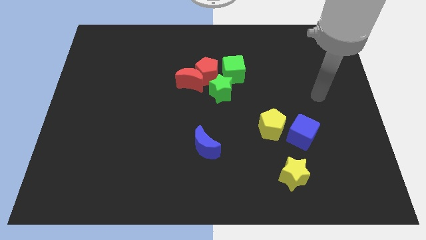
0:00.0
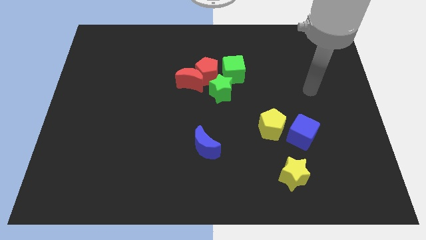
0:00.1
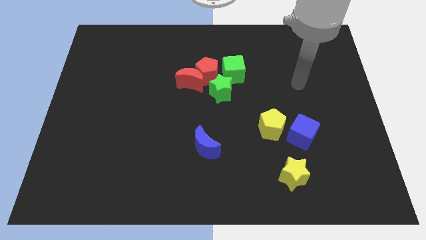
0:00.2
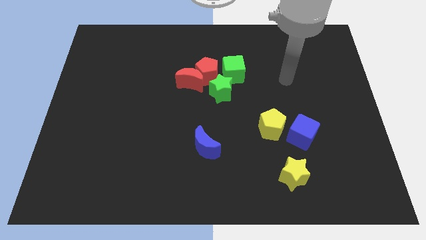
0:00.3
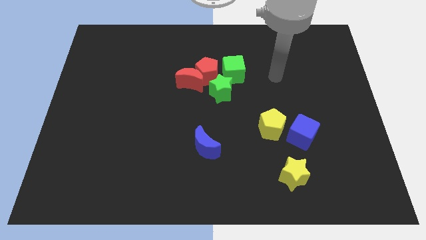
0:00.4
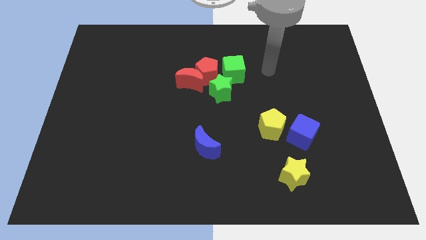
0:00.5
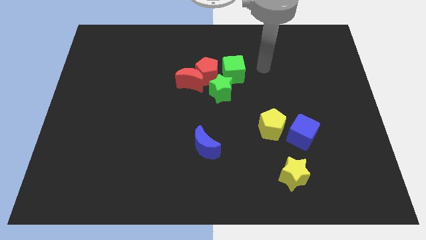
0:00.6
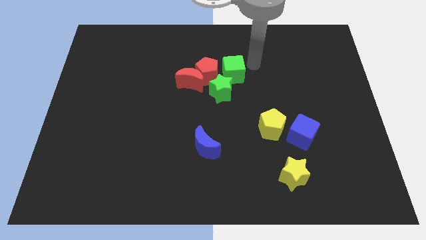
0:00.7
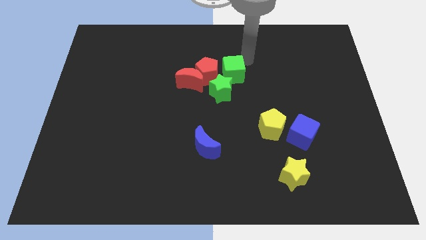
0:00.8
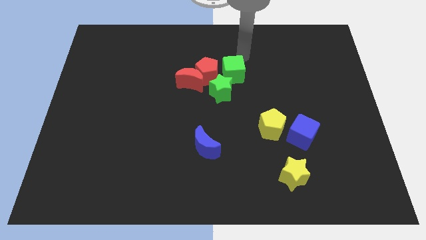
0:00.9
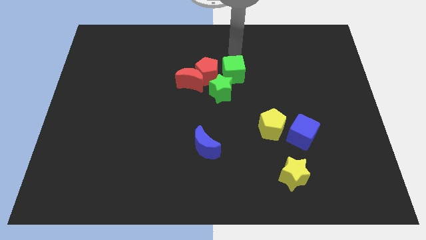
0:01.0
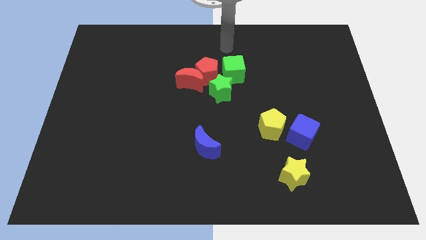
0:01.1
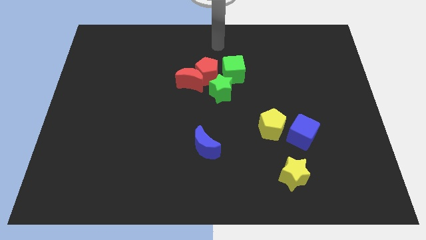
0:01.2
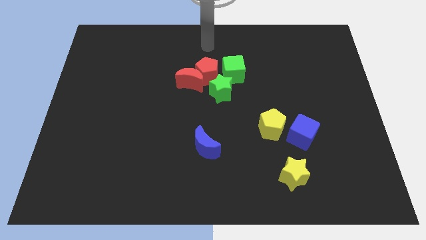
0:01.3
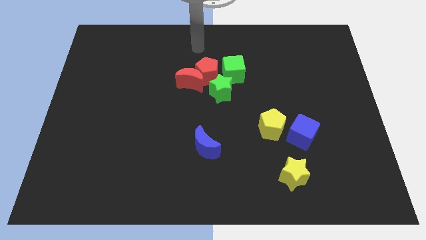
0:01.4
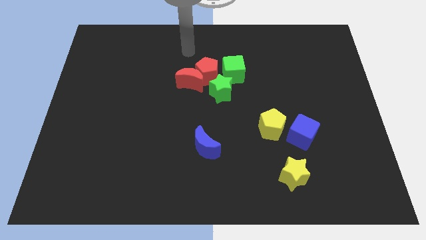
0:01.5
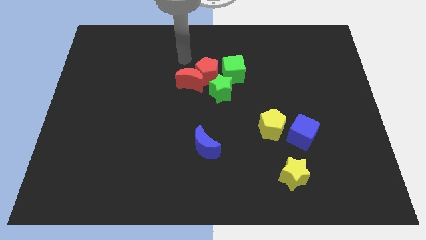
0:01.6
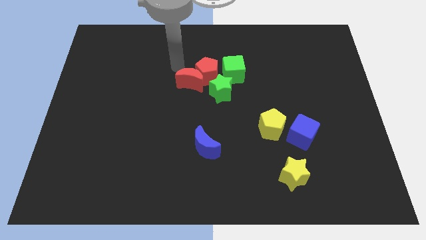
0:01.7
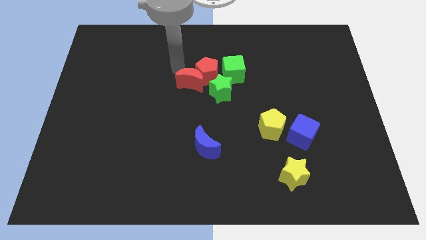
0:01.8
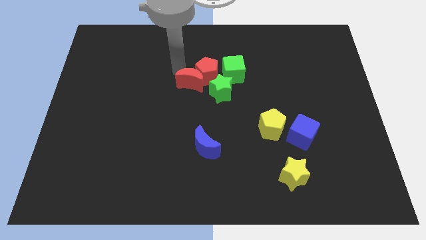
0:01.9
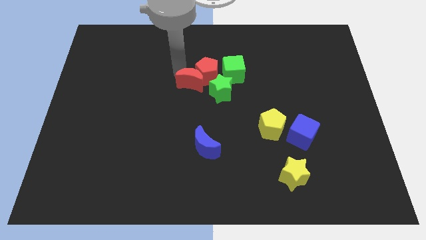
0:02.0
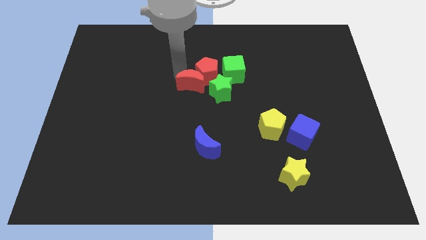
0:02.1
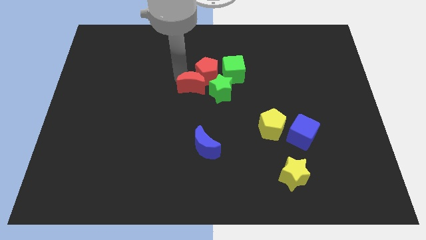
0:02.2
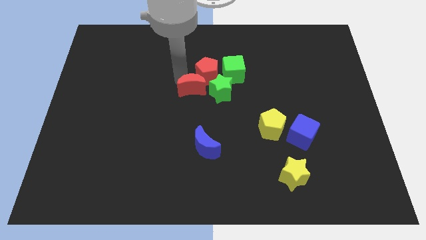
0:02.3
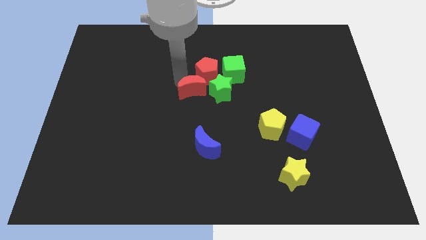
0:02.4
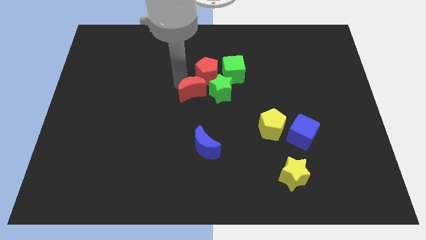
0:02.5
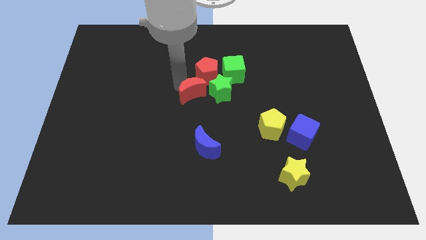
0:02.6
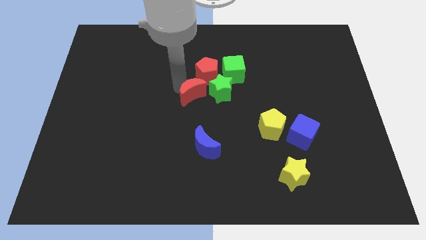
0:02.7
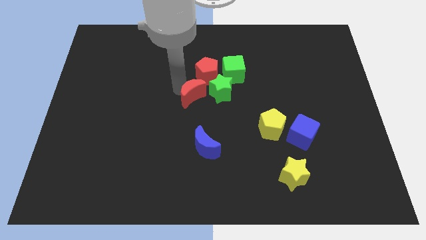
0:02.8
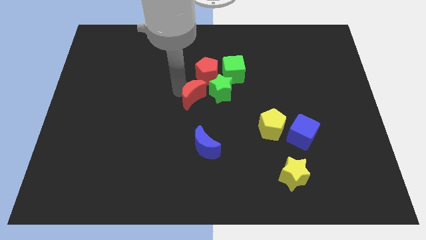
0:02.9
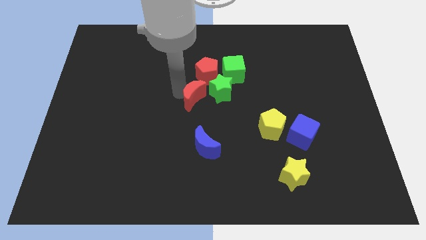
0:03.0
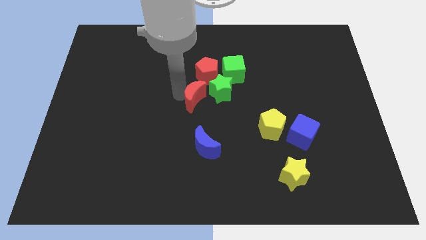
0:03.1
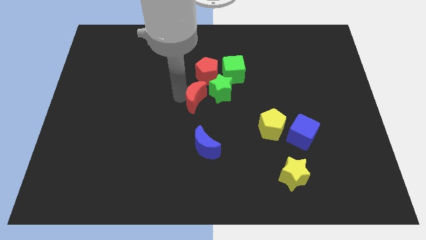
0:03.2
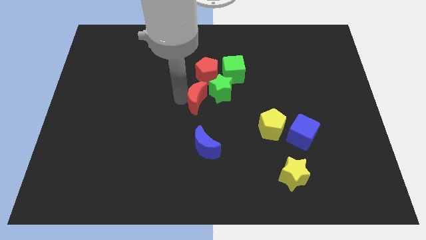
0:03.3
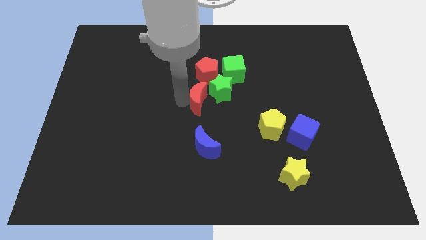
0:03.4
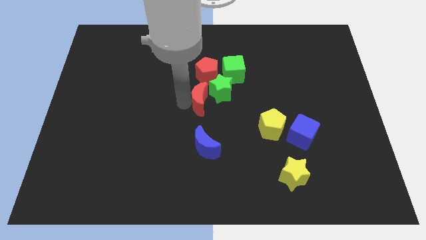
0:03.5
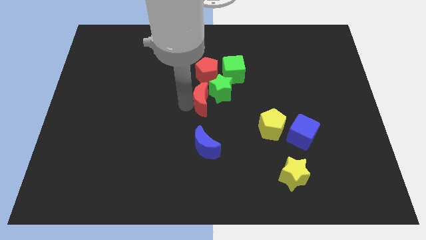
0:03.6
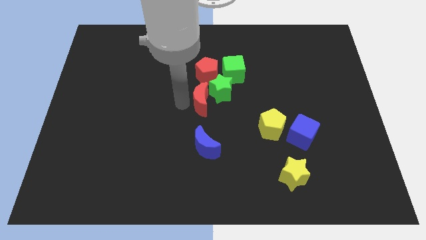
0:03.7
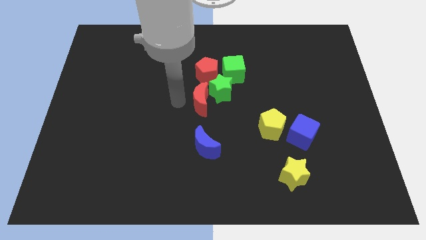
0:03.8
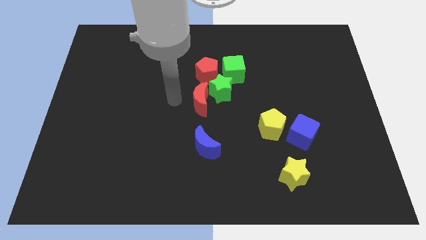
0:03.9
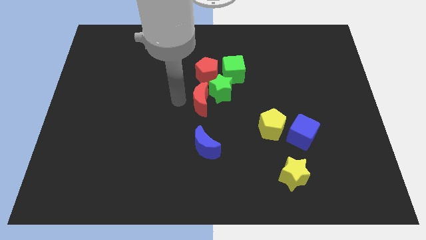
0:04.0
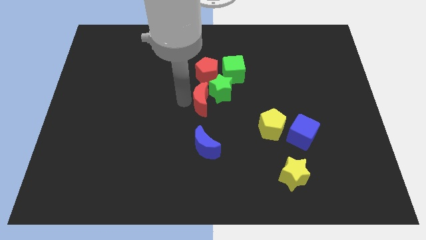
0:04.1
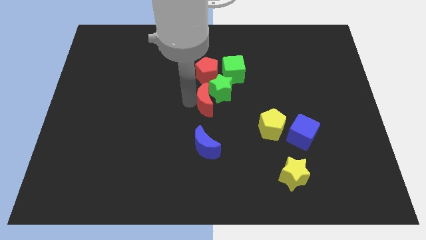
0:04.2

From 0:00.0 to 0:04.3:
move the red moon downwards and then to the right a little bit

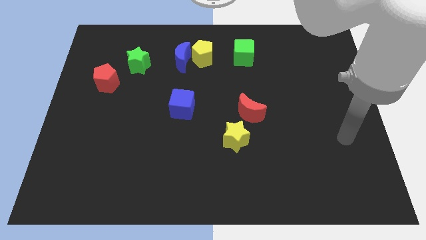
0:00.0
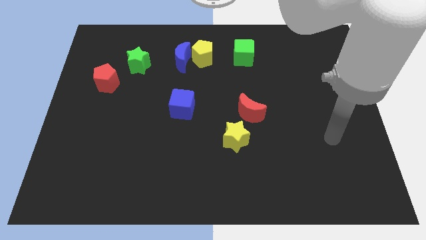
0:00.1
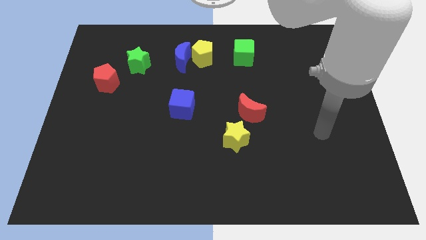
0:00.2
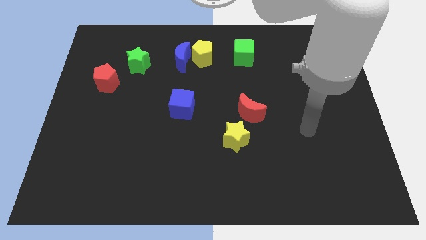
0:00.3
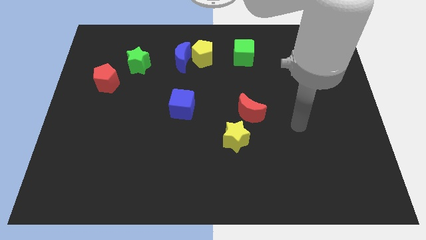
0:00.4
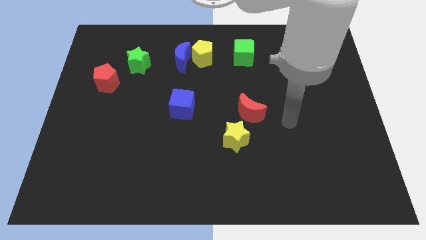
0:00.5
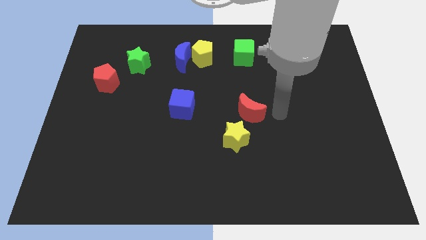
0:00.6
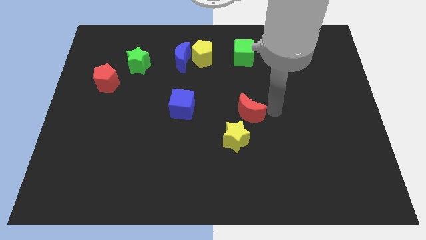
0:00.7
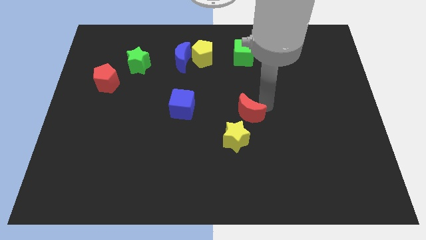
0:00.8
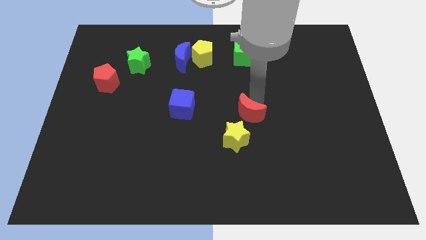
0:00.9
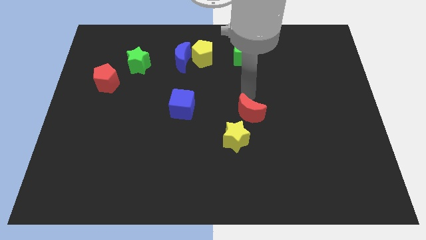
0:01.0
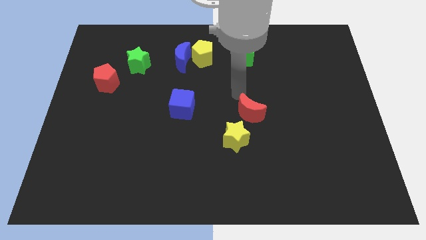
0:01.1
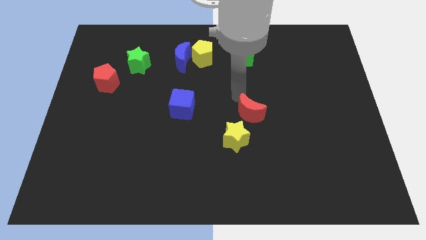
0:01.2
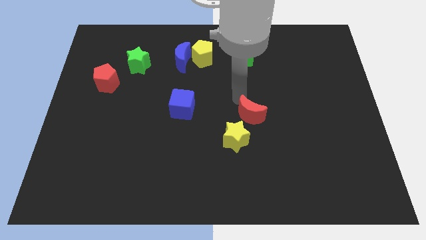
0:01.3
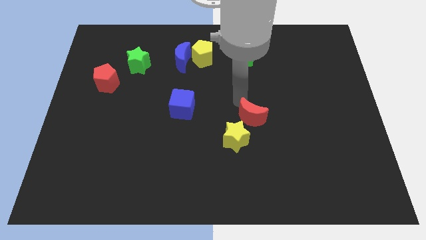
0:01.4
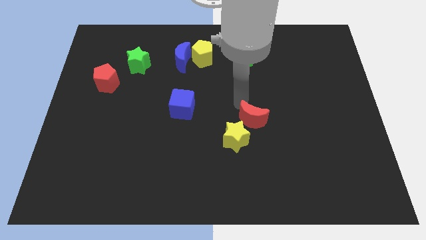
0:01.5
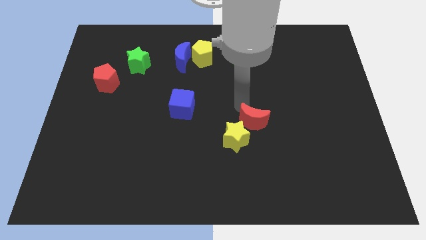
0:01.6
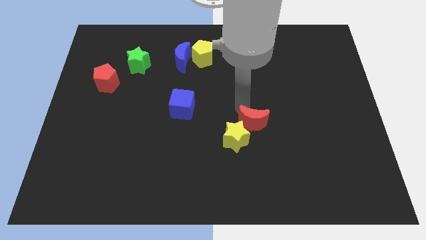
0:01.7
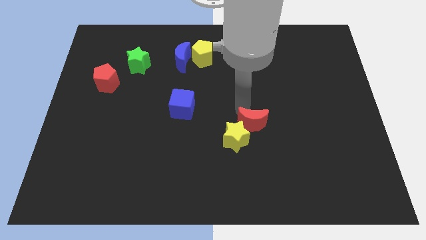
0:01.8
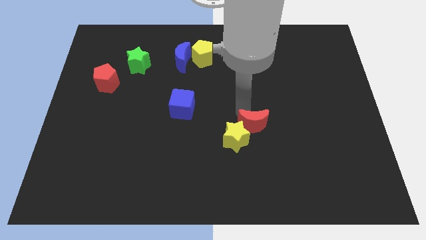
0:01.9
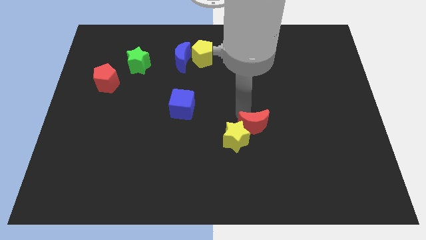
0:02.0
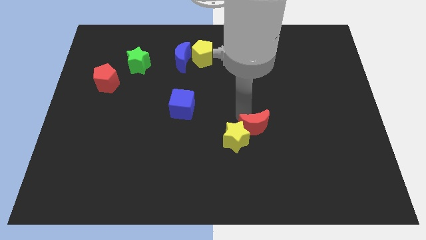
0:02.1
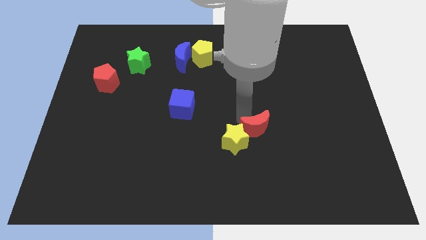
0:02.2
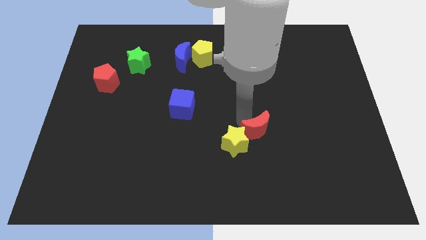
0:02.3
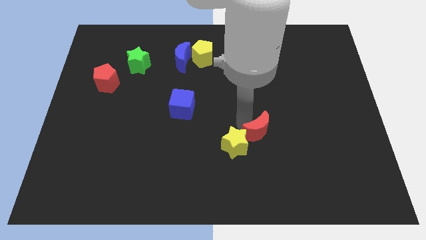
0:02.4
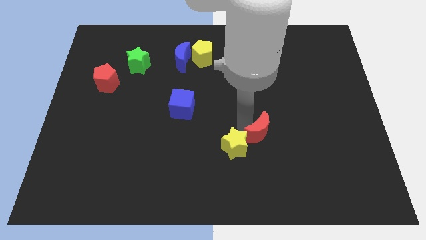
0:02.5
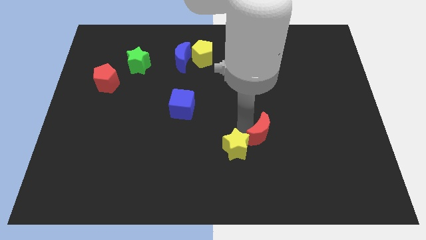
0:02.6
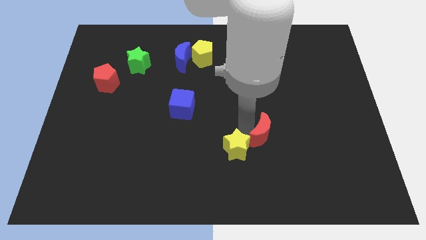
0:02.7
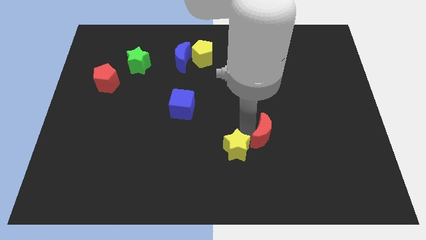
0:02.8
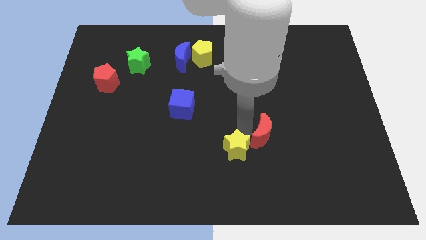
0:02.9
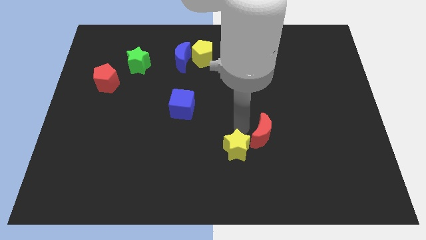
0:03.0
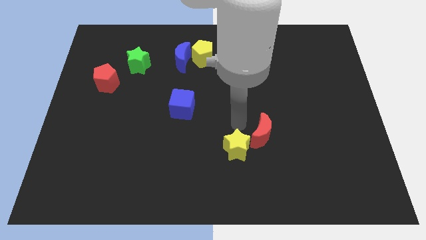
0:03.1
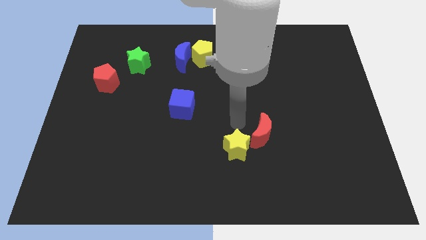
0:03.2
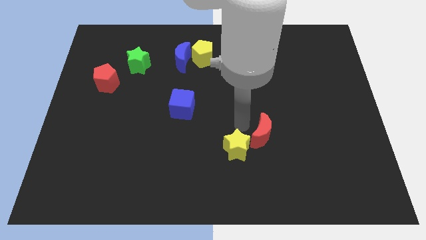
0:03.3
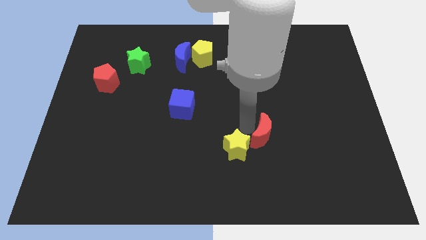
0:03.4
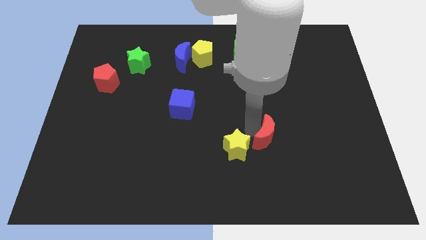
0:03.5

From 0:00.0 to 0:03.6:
slightly move the red moon down and to the right diagonally

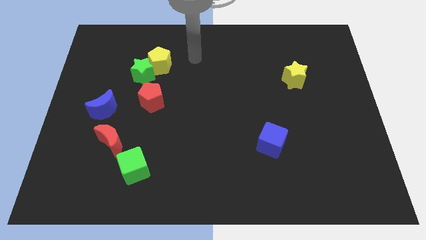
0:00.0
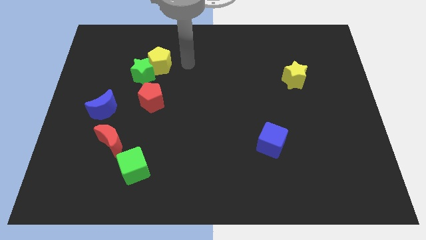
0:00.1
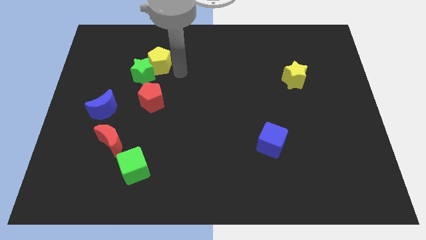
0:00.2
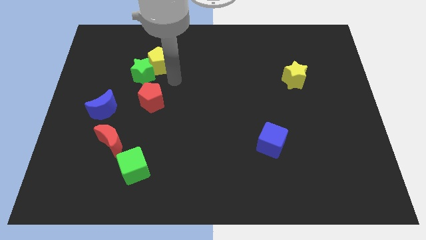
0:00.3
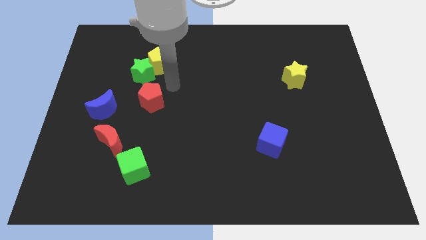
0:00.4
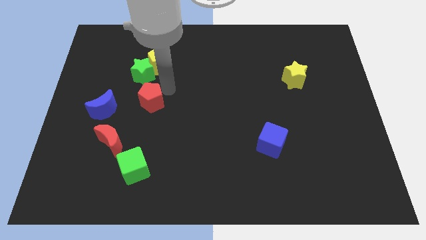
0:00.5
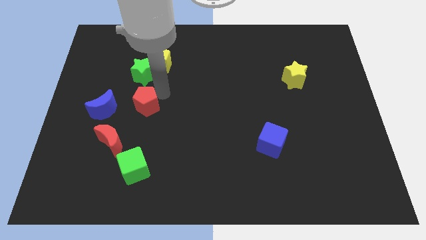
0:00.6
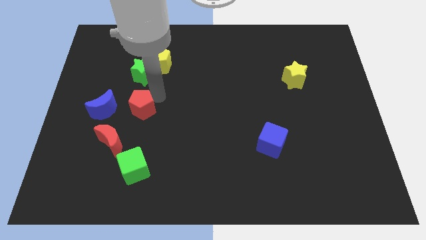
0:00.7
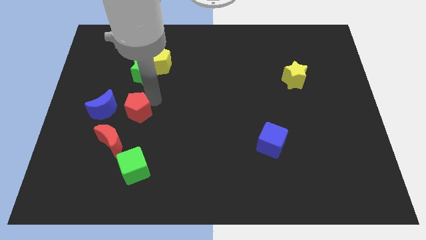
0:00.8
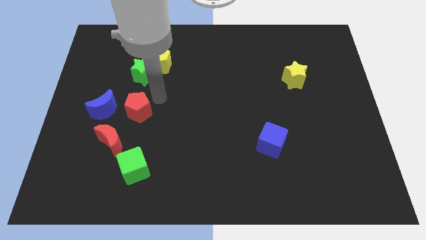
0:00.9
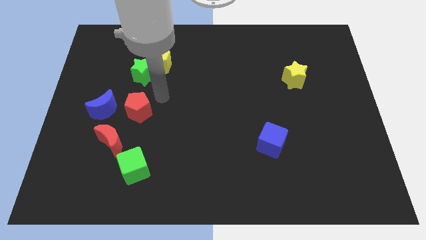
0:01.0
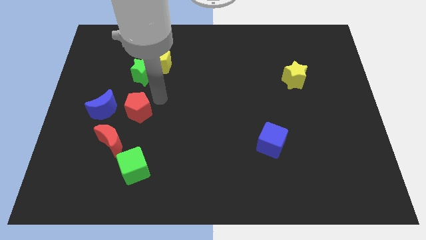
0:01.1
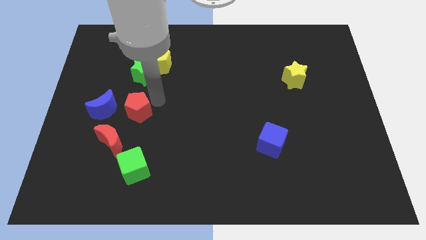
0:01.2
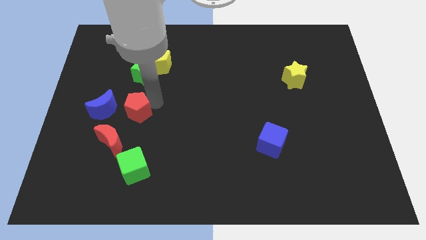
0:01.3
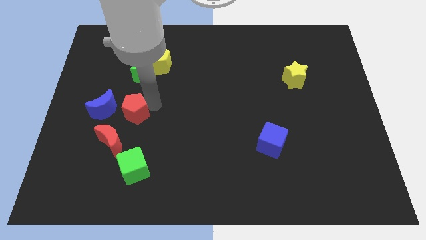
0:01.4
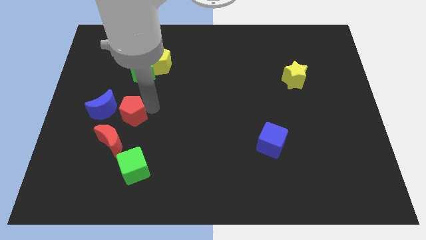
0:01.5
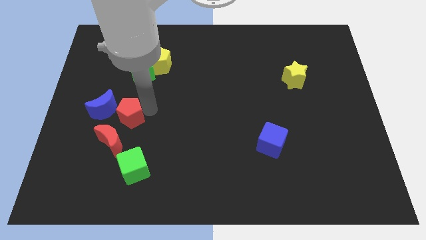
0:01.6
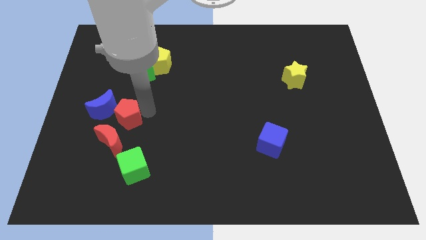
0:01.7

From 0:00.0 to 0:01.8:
slide the red pentagon a little bit downwards and then to the left
